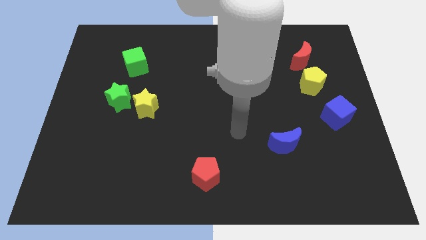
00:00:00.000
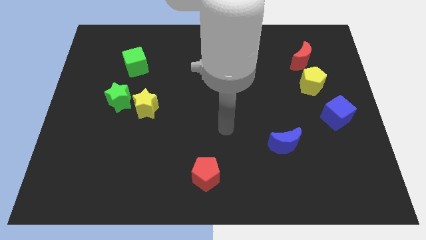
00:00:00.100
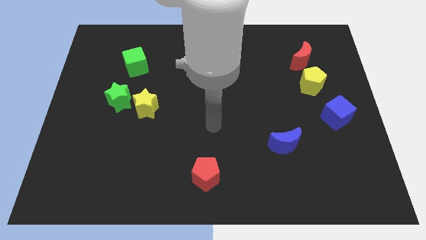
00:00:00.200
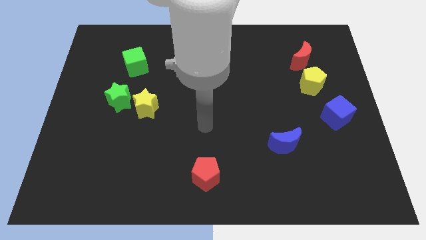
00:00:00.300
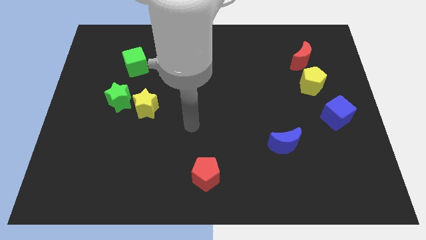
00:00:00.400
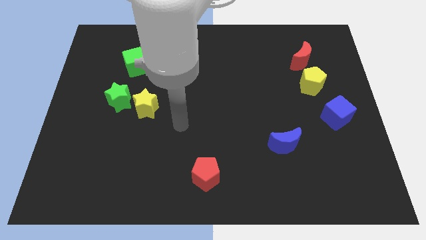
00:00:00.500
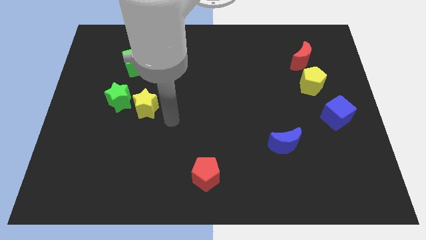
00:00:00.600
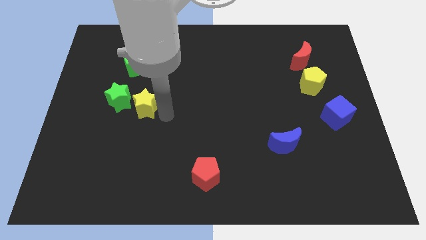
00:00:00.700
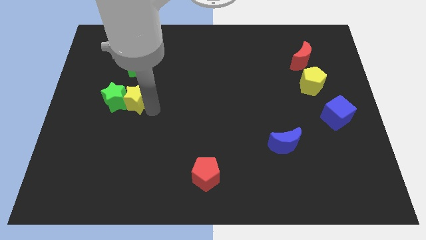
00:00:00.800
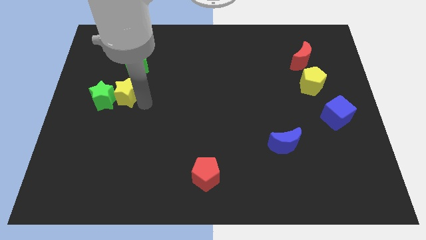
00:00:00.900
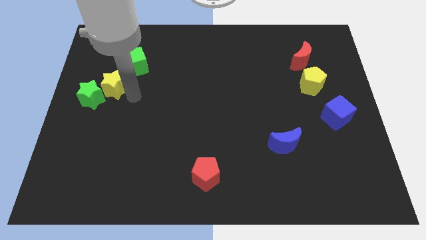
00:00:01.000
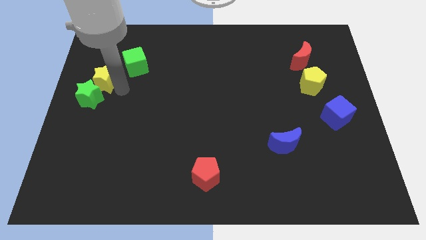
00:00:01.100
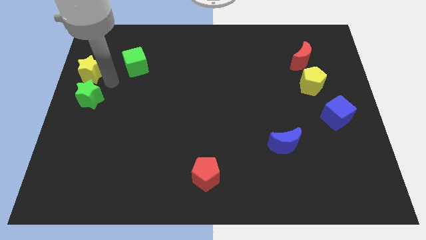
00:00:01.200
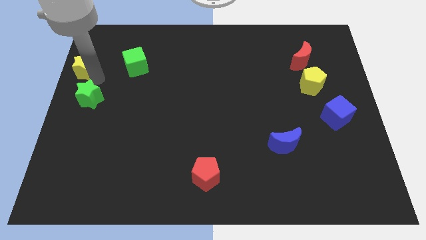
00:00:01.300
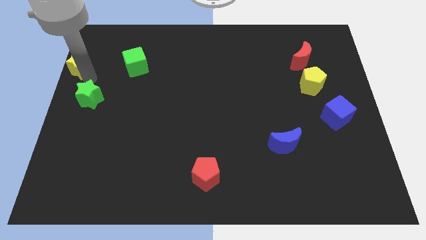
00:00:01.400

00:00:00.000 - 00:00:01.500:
pull the green star apart from the yellow star

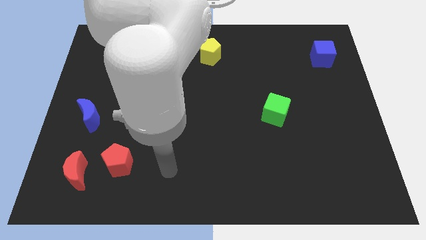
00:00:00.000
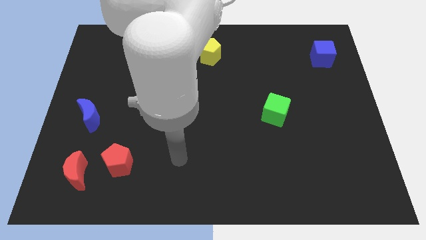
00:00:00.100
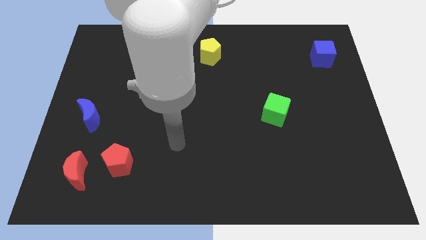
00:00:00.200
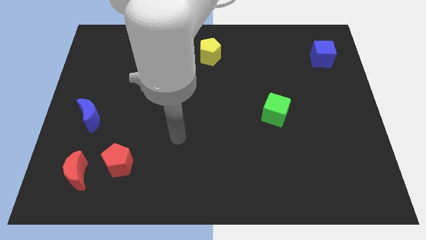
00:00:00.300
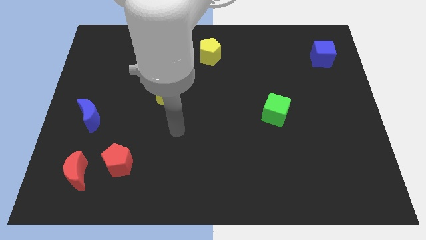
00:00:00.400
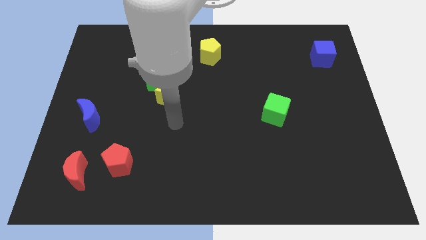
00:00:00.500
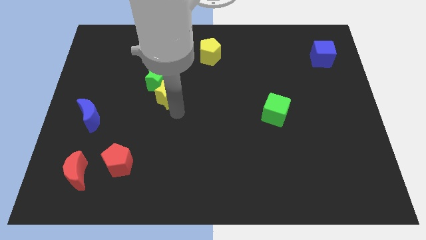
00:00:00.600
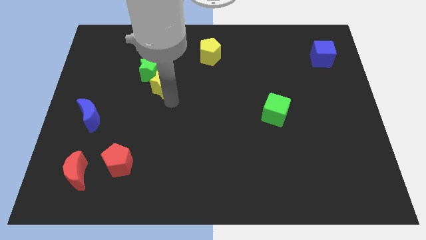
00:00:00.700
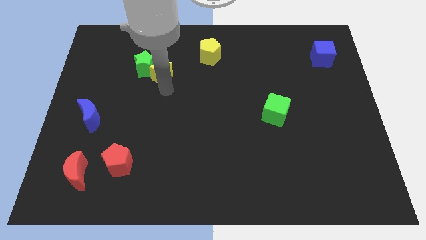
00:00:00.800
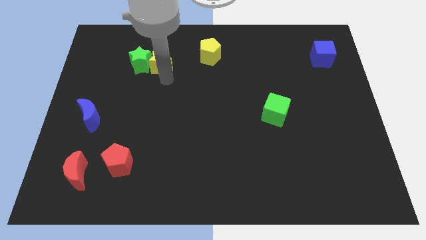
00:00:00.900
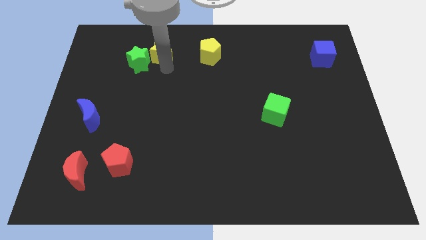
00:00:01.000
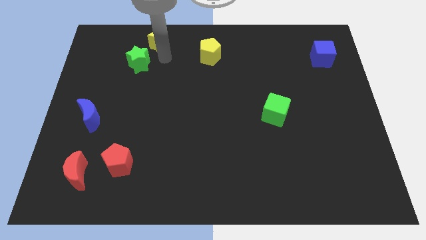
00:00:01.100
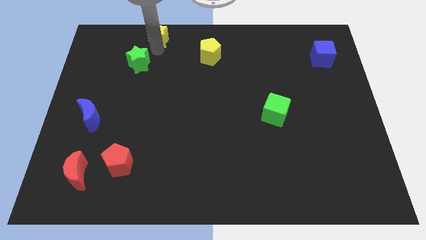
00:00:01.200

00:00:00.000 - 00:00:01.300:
move the green star away from the yellow star

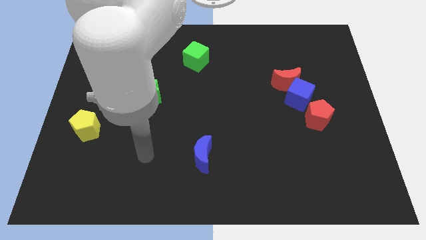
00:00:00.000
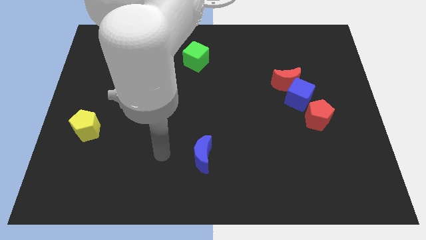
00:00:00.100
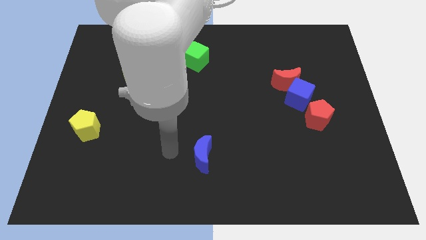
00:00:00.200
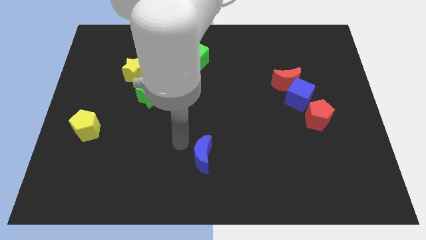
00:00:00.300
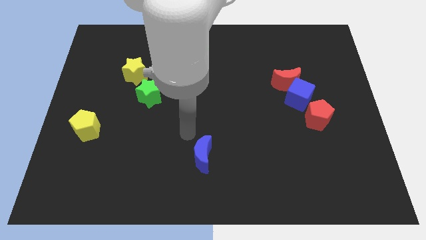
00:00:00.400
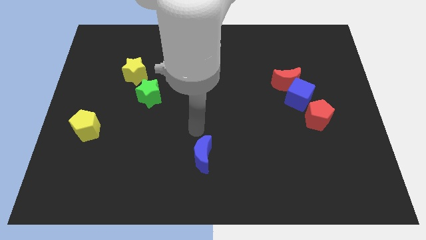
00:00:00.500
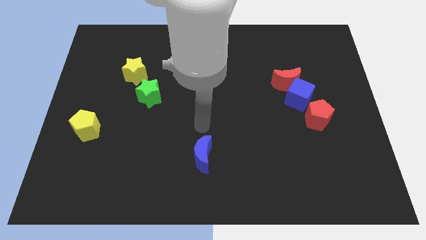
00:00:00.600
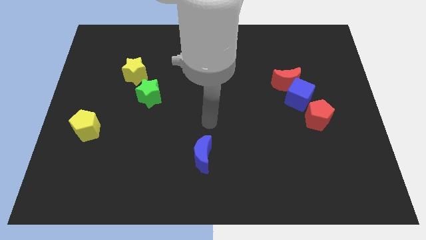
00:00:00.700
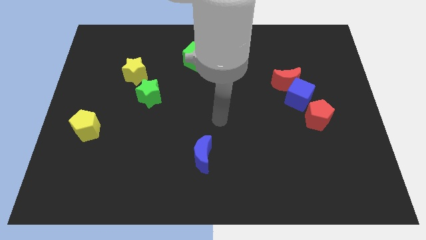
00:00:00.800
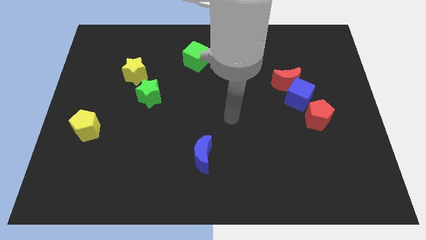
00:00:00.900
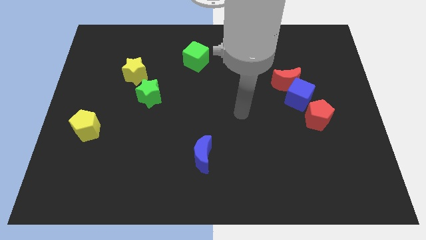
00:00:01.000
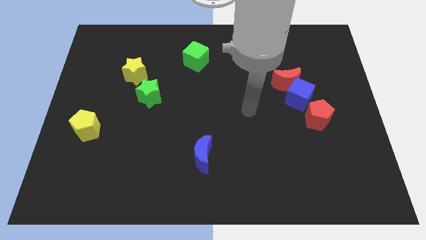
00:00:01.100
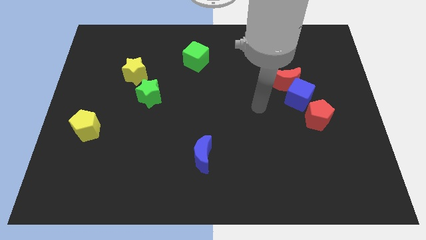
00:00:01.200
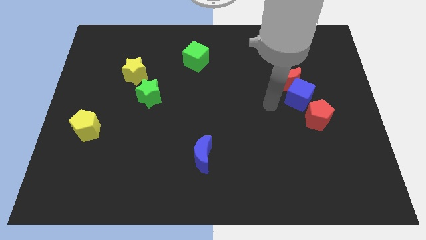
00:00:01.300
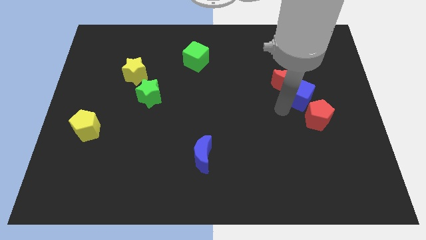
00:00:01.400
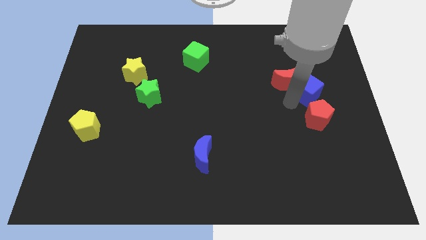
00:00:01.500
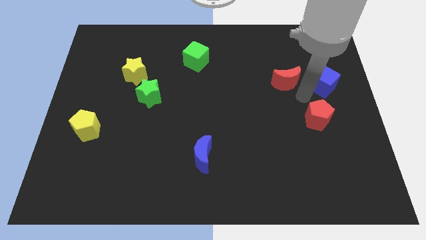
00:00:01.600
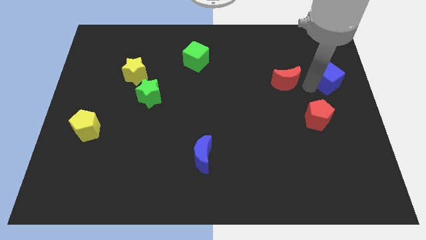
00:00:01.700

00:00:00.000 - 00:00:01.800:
separate the red moon from the blue cube

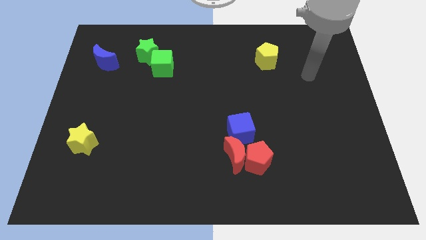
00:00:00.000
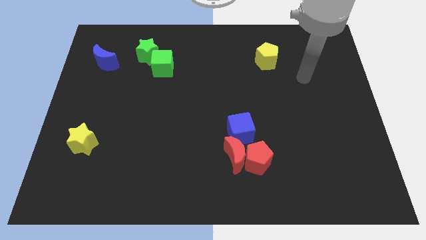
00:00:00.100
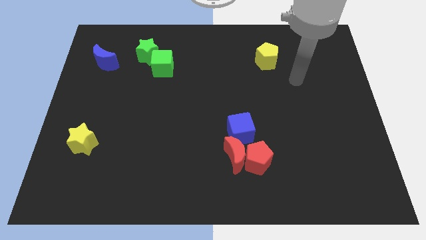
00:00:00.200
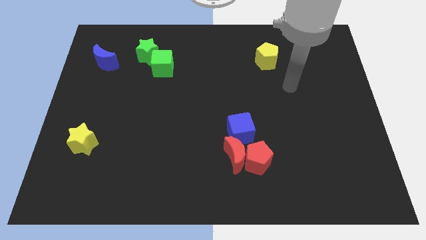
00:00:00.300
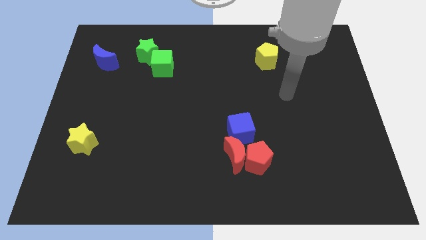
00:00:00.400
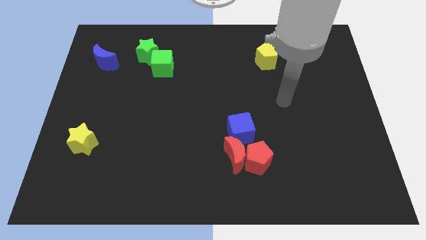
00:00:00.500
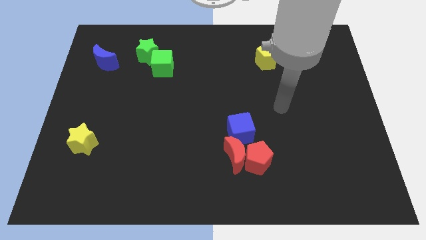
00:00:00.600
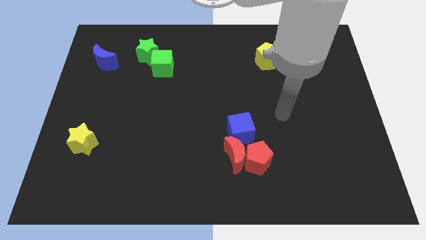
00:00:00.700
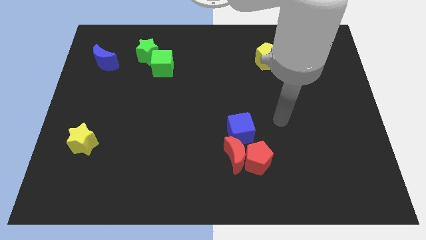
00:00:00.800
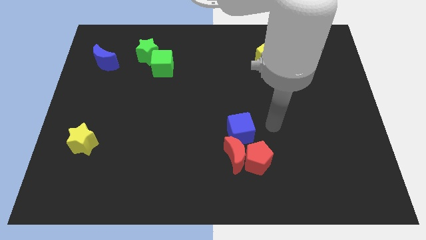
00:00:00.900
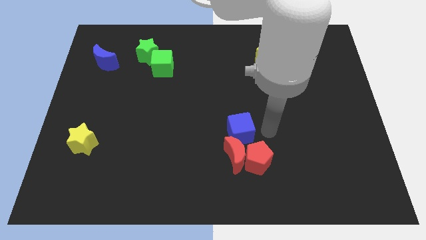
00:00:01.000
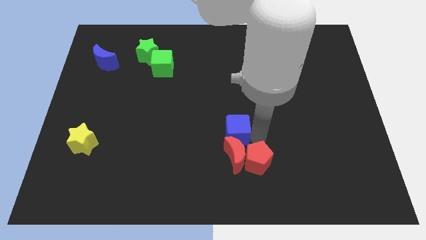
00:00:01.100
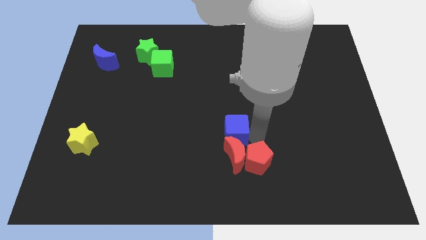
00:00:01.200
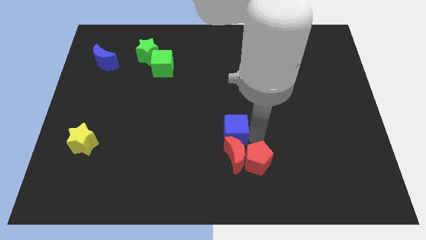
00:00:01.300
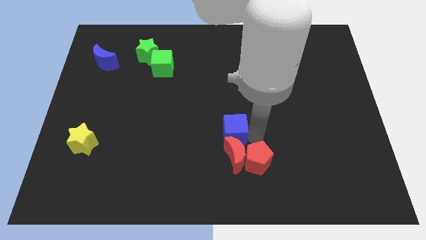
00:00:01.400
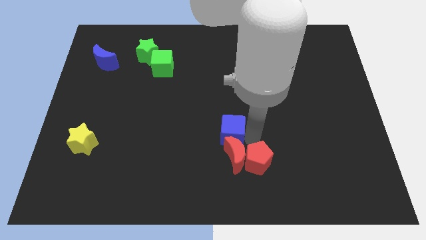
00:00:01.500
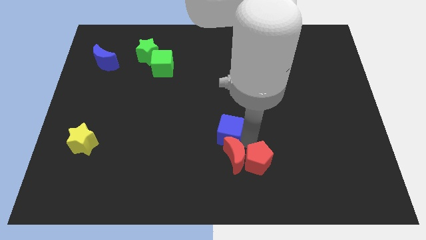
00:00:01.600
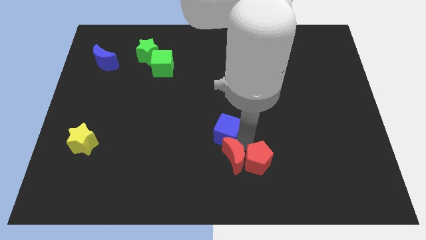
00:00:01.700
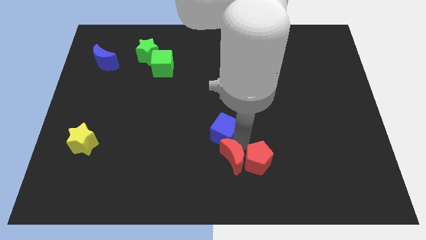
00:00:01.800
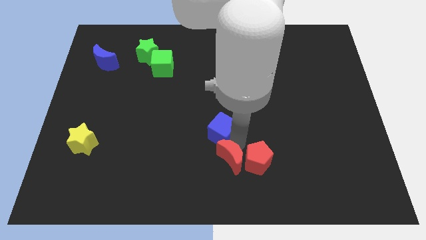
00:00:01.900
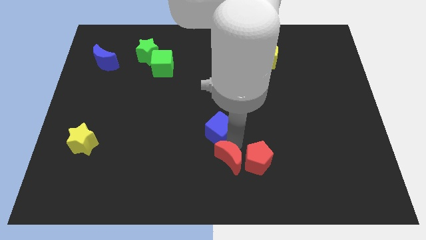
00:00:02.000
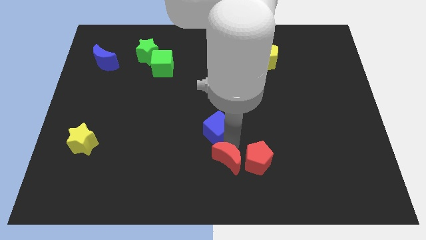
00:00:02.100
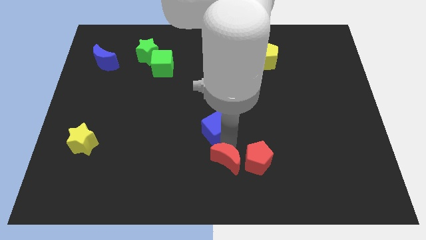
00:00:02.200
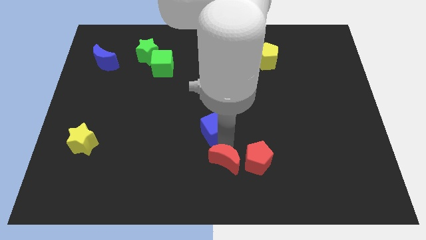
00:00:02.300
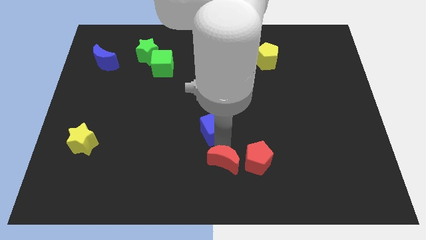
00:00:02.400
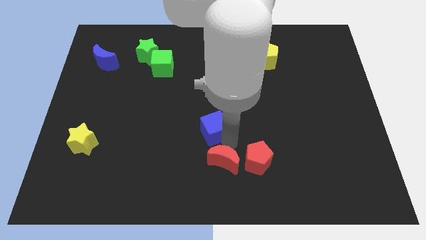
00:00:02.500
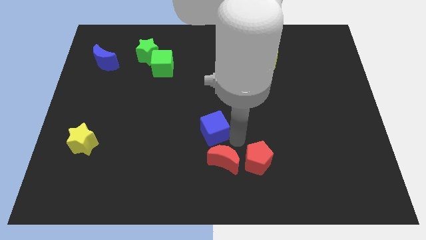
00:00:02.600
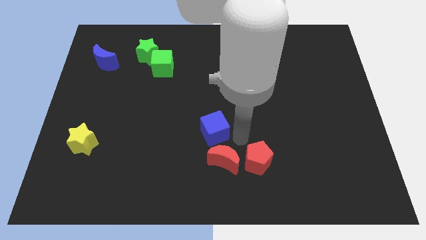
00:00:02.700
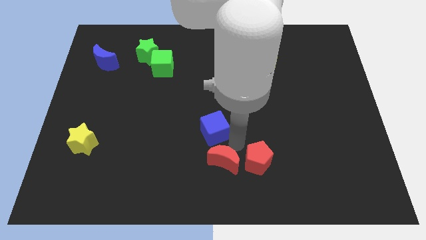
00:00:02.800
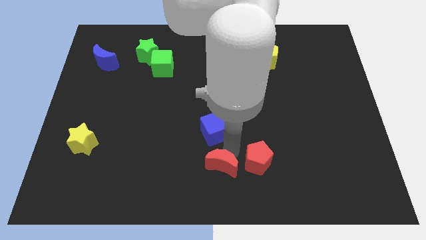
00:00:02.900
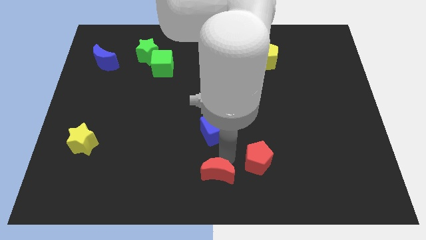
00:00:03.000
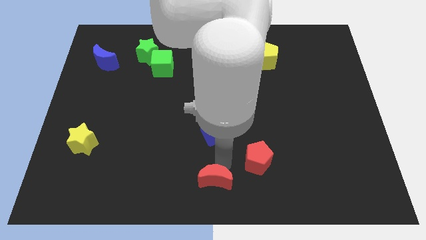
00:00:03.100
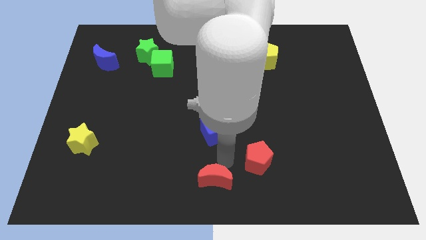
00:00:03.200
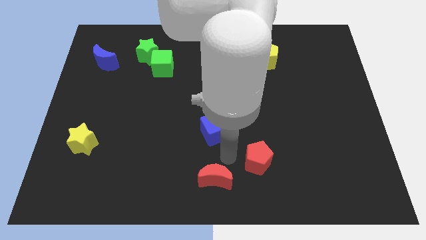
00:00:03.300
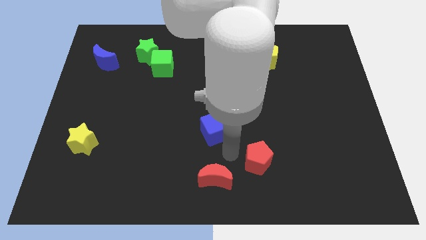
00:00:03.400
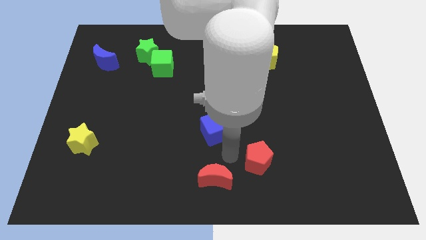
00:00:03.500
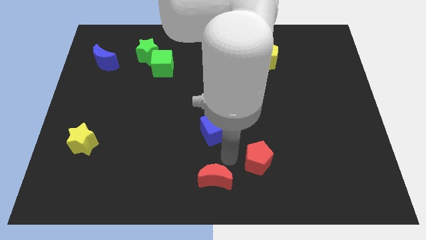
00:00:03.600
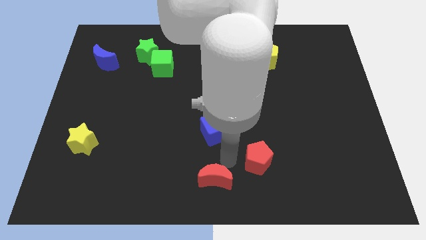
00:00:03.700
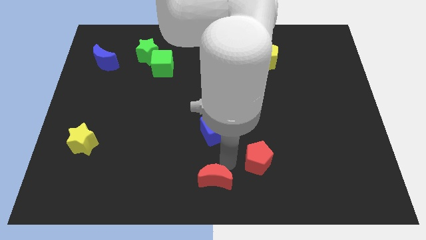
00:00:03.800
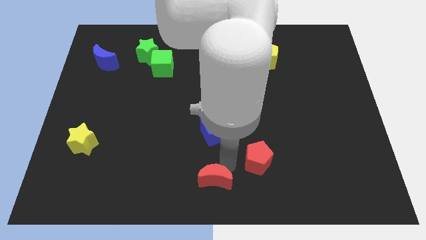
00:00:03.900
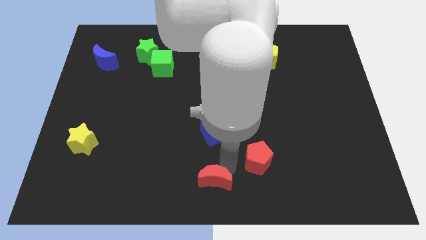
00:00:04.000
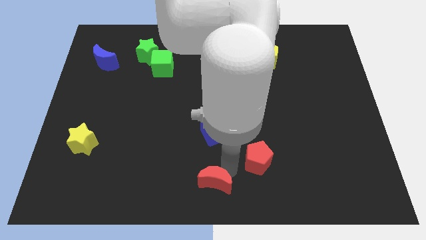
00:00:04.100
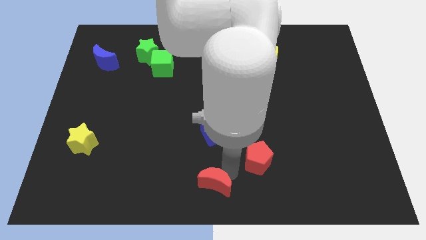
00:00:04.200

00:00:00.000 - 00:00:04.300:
pull the red moon apart from the red pentagon and blue cube

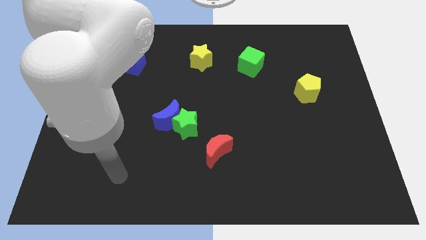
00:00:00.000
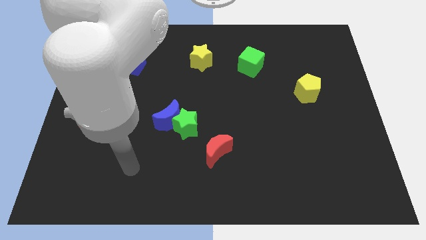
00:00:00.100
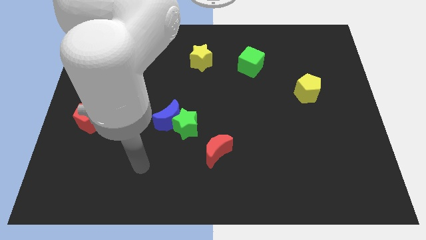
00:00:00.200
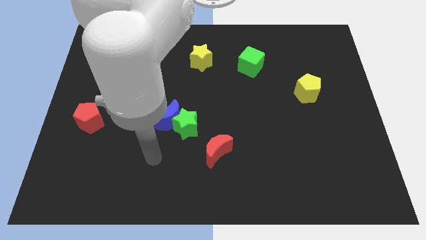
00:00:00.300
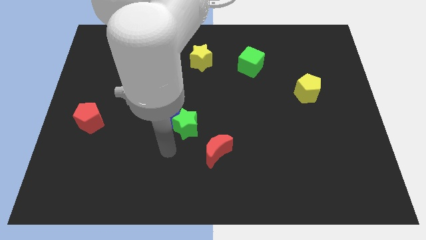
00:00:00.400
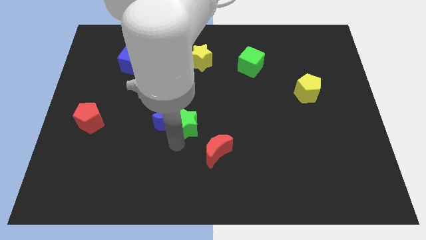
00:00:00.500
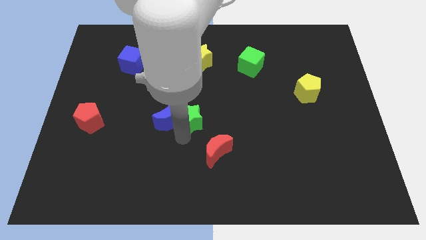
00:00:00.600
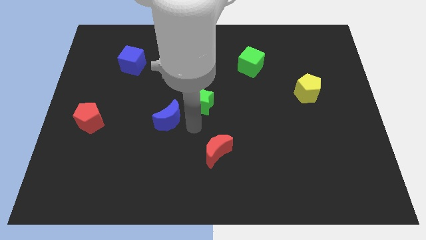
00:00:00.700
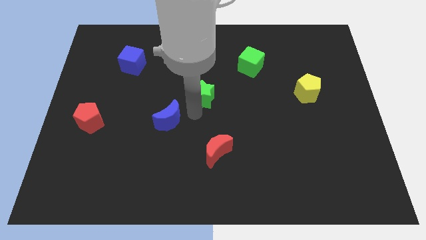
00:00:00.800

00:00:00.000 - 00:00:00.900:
pull the blue moon apart from the green star